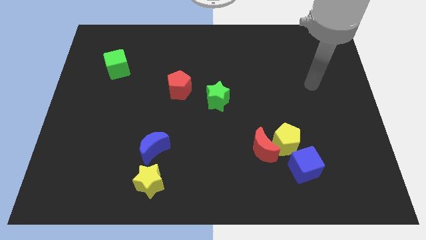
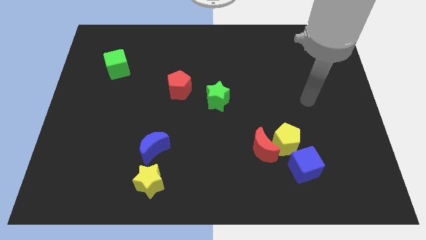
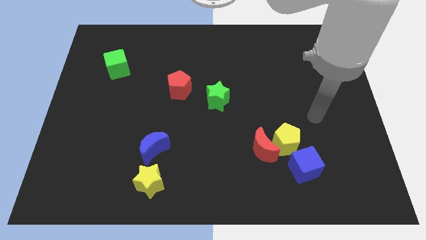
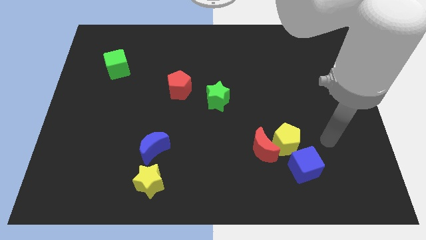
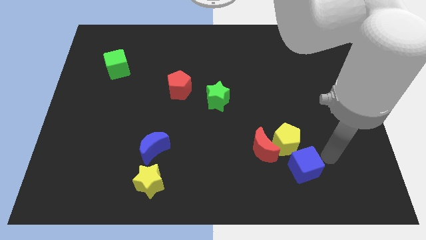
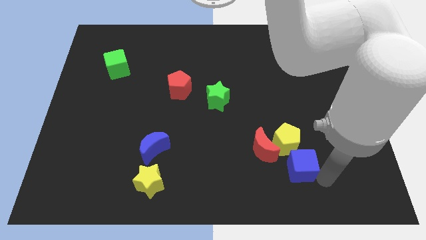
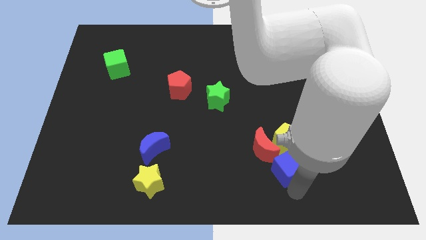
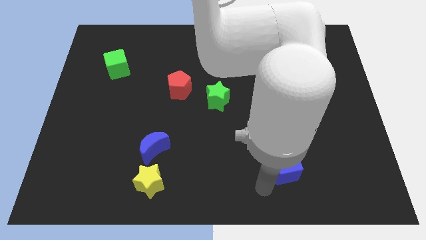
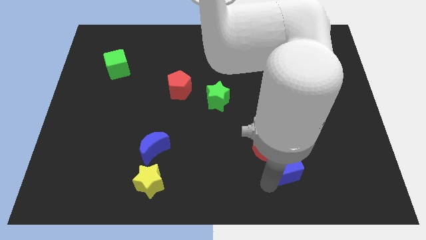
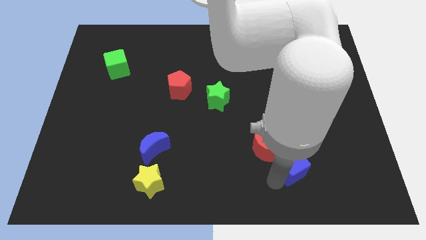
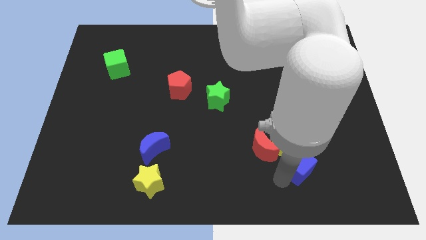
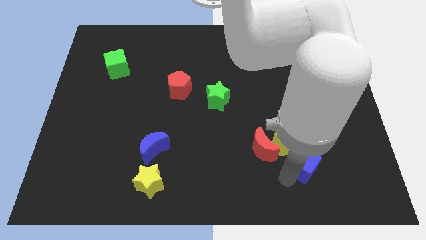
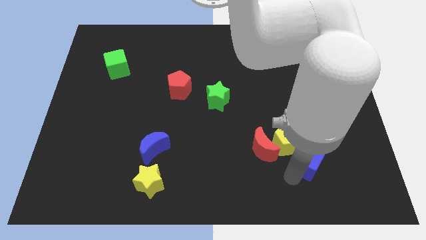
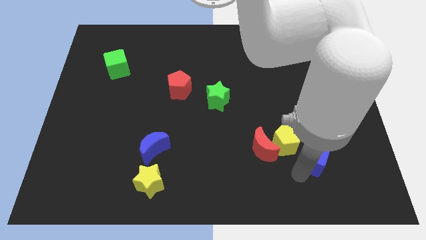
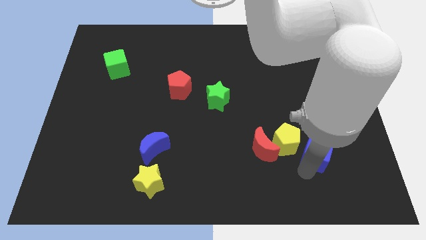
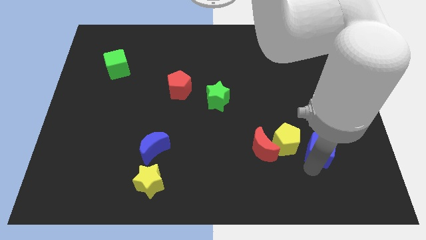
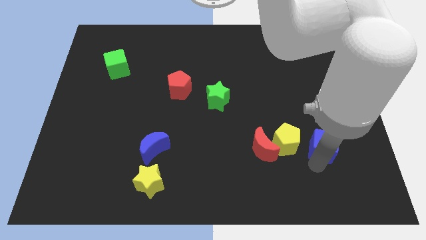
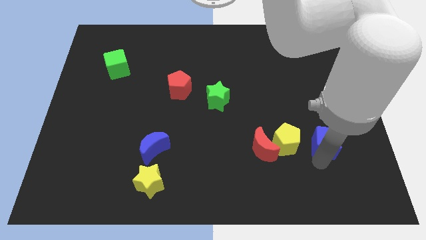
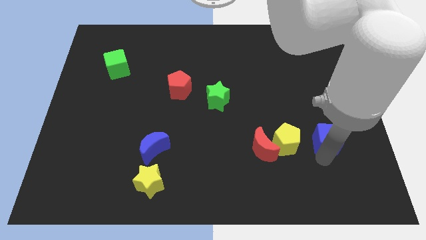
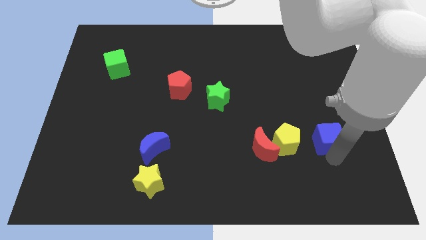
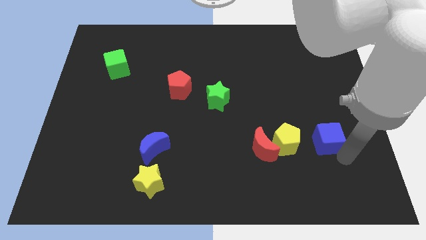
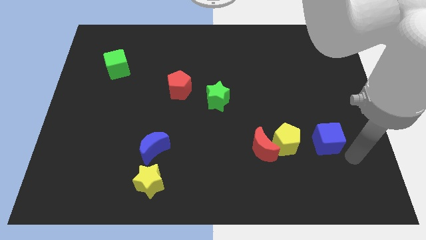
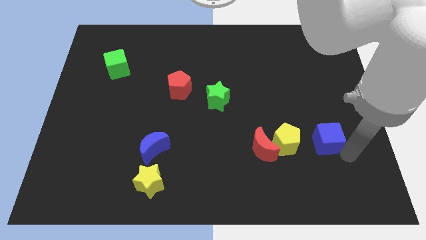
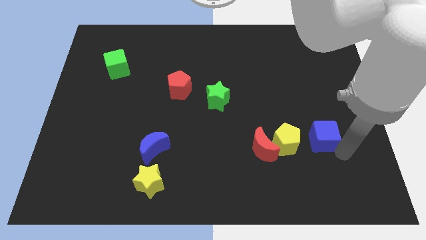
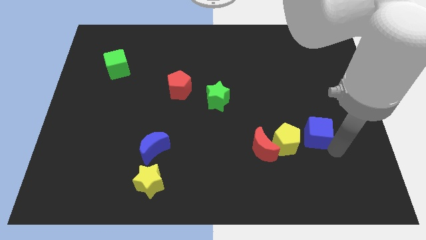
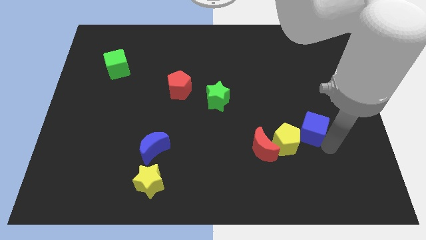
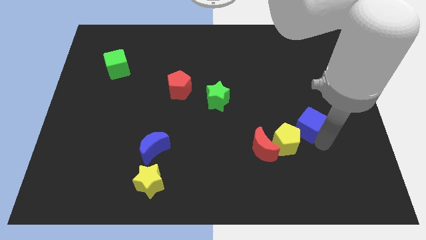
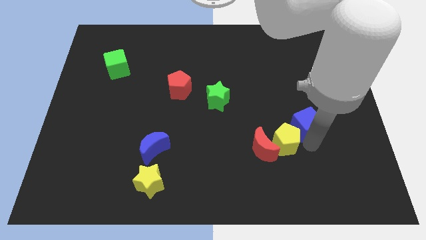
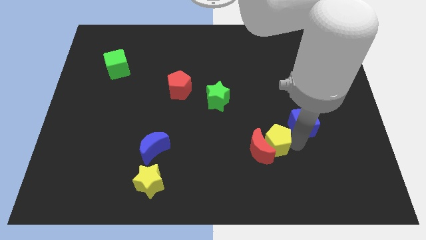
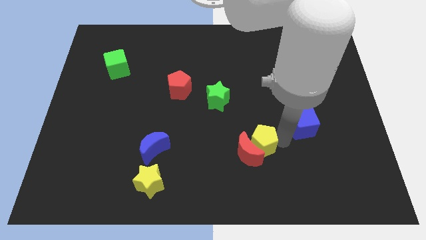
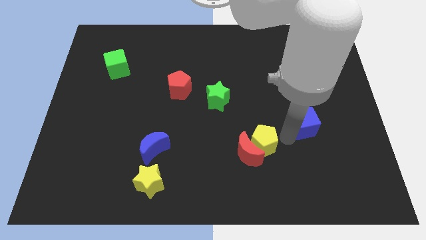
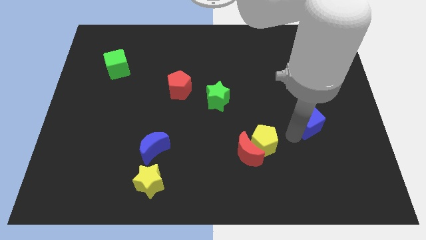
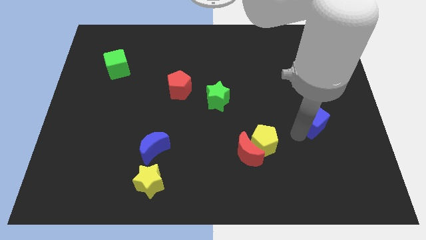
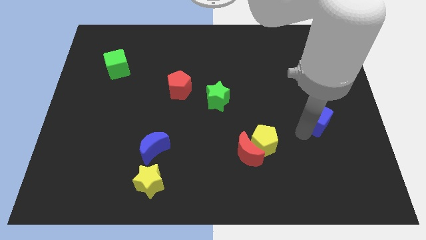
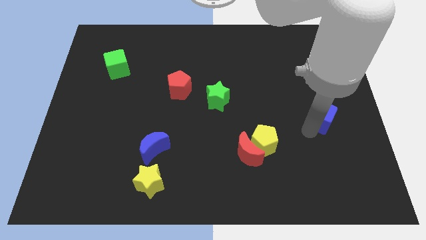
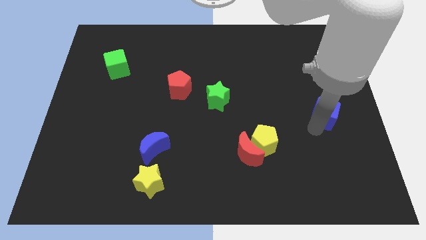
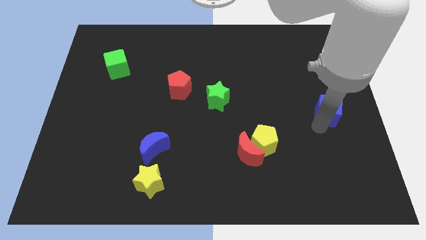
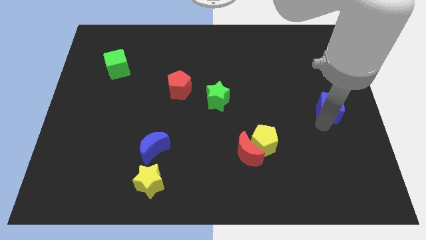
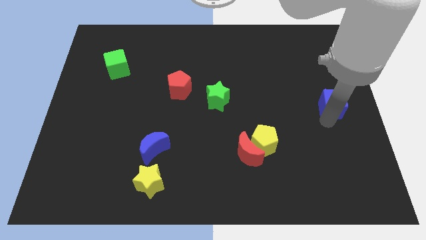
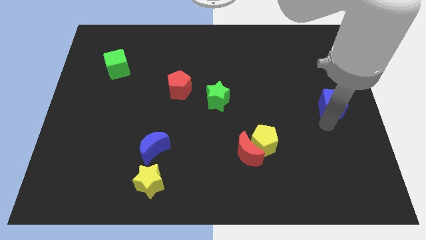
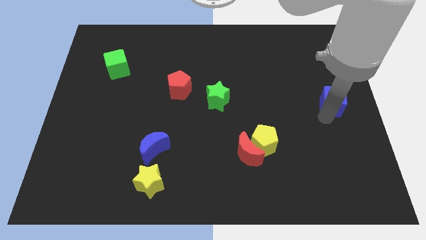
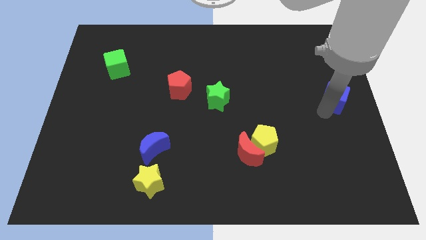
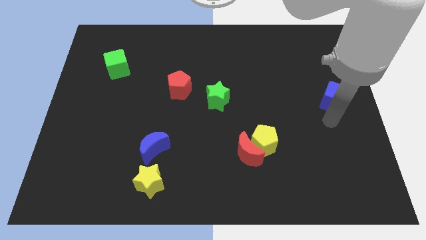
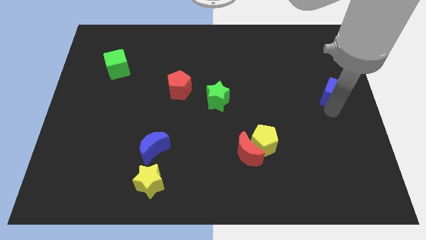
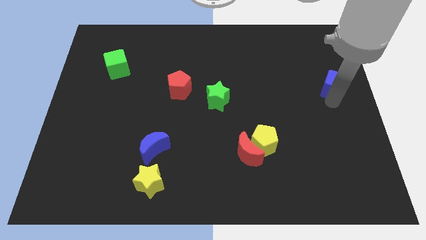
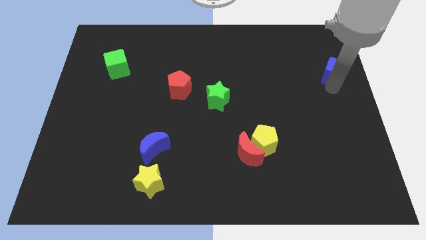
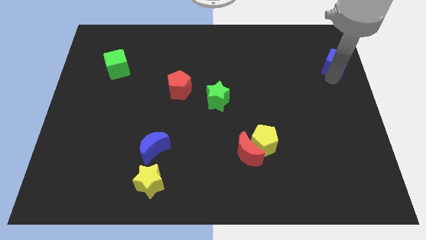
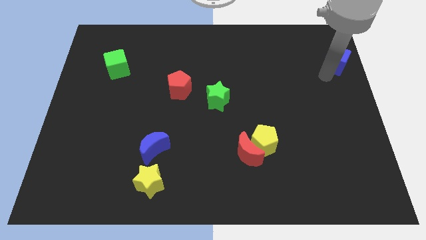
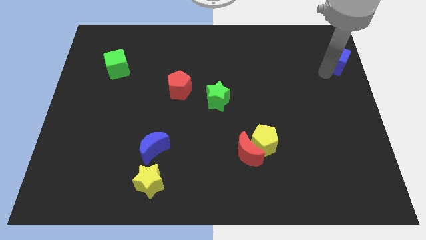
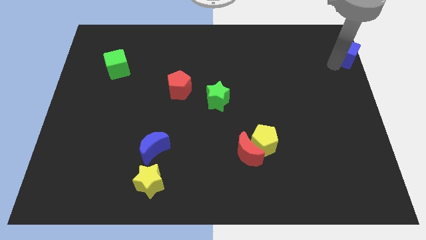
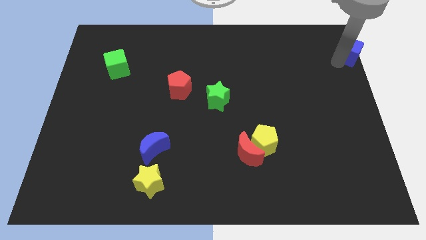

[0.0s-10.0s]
move the blue cube to the top right

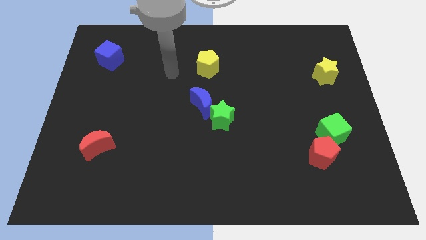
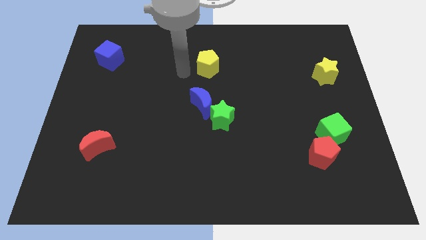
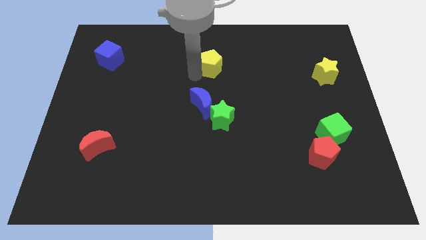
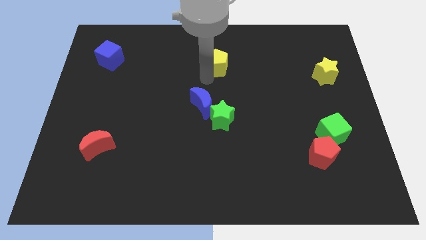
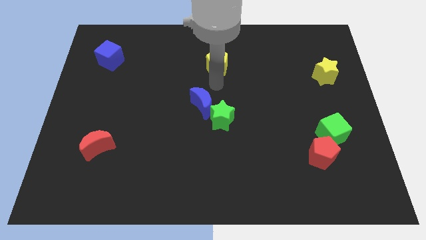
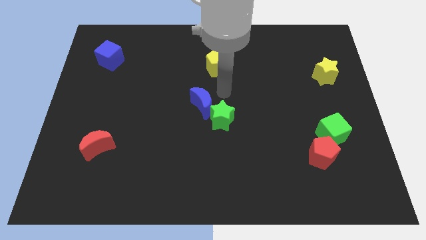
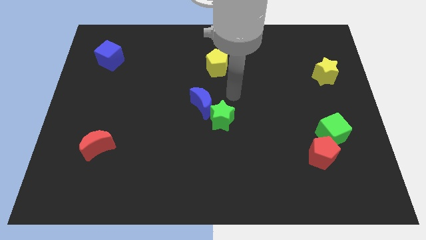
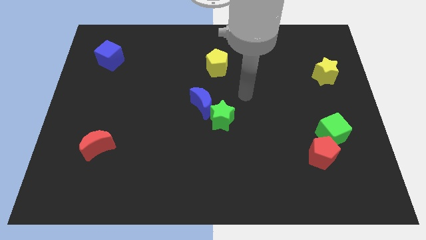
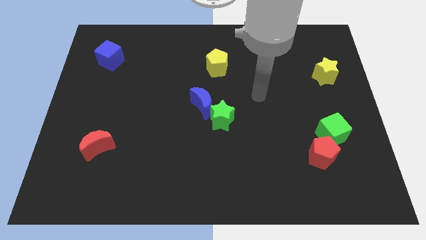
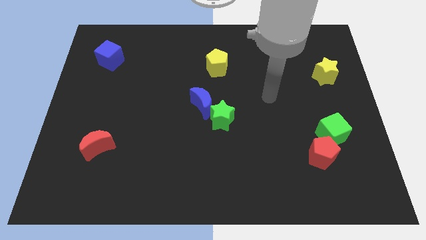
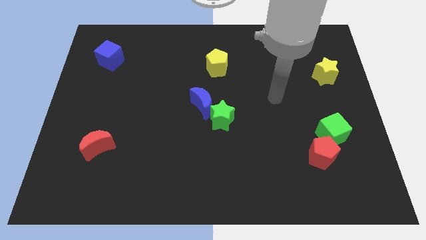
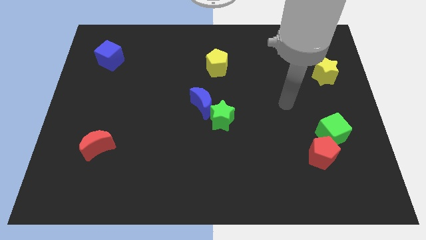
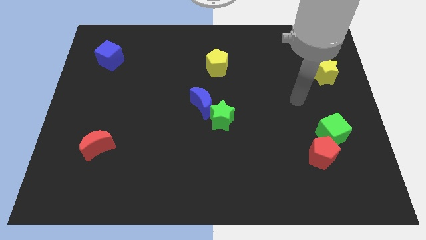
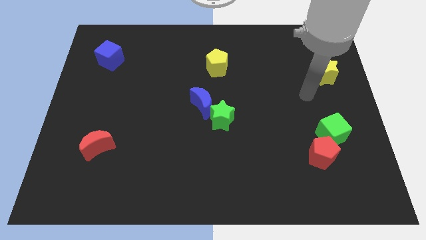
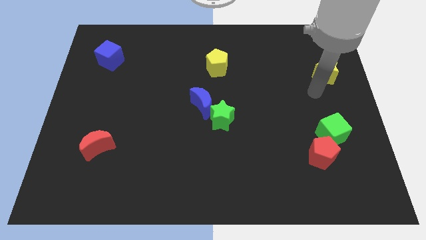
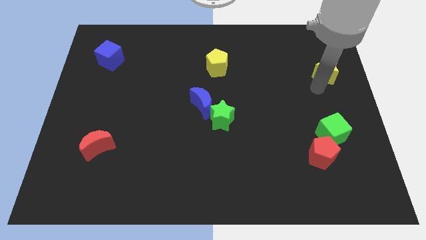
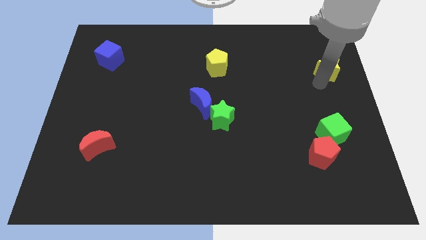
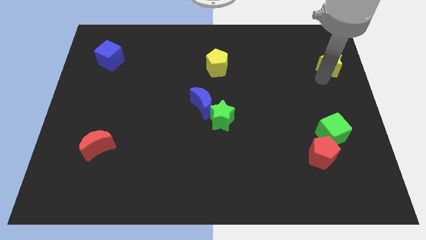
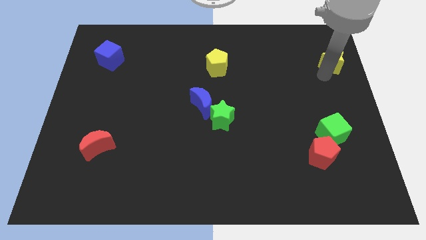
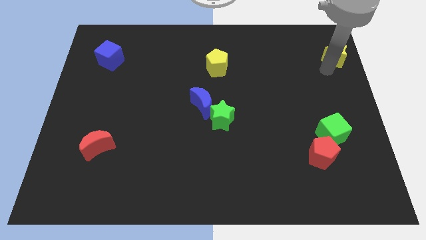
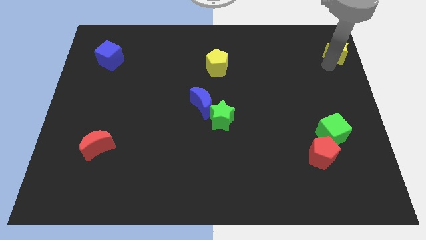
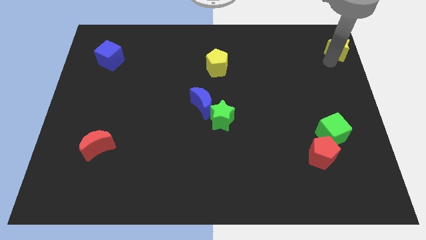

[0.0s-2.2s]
put the yellow star to the top right

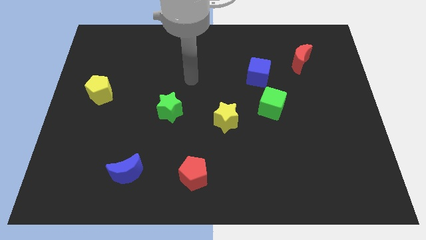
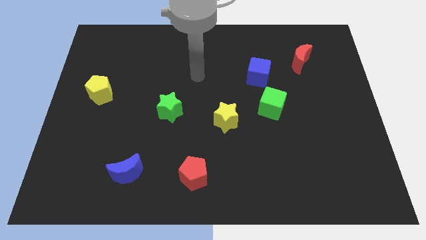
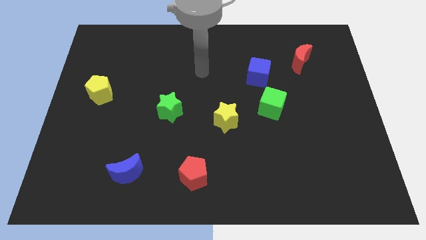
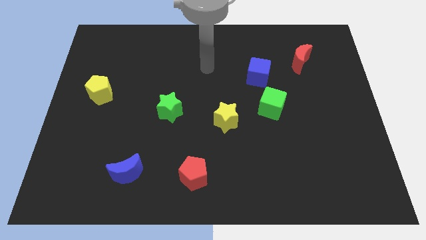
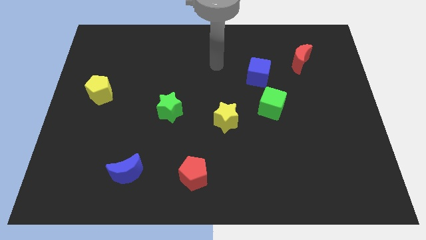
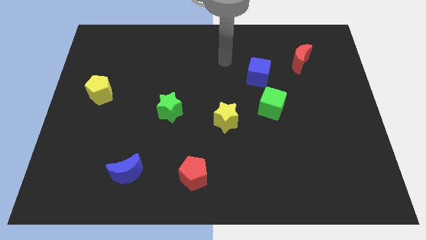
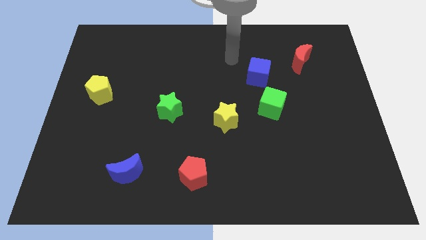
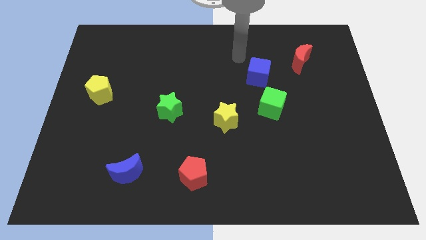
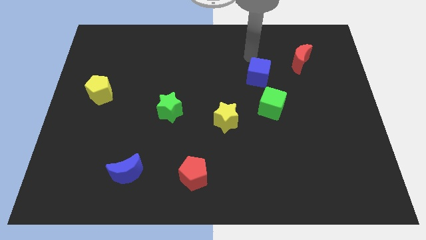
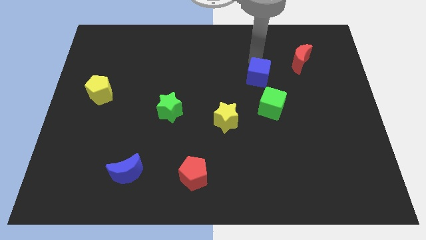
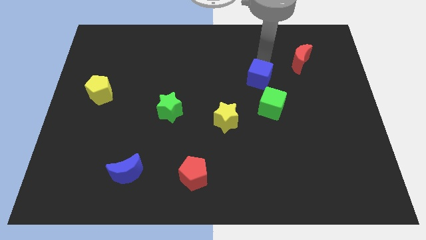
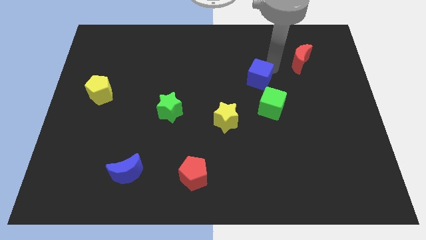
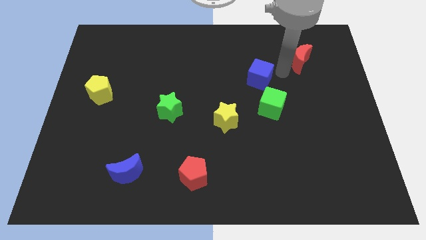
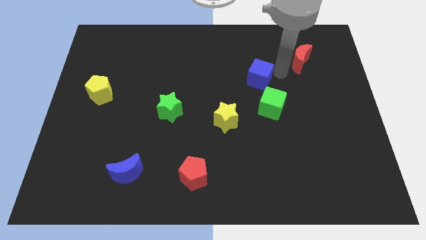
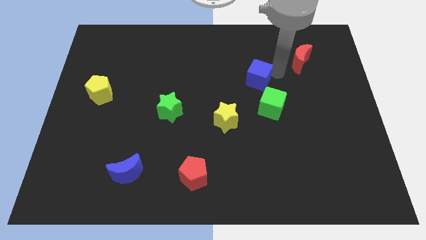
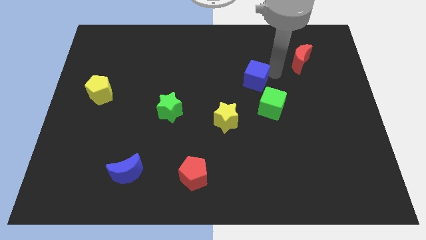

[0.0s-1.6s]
push the blue cube to the middle of the board
